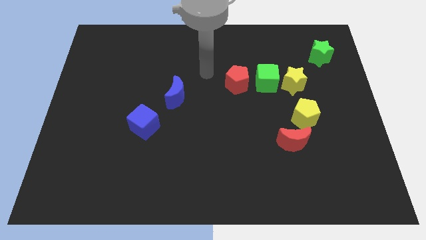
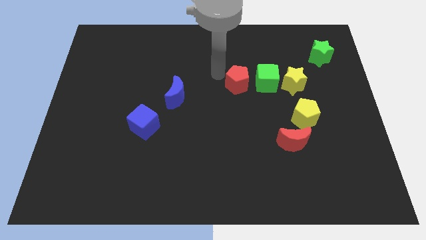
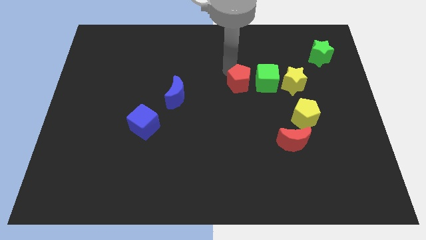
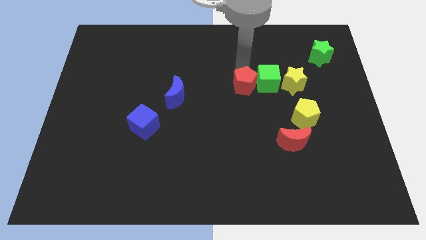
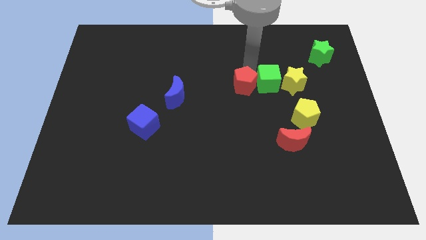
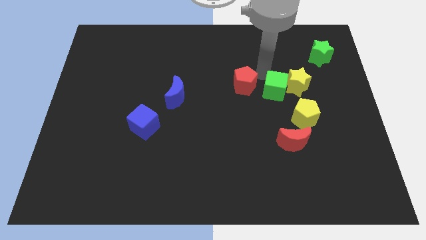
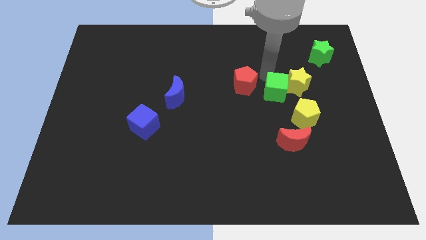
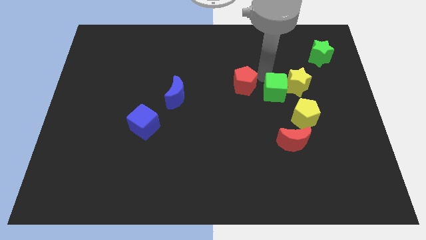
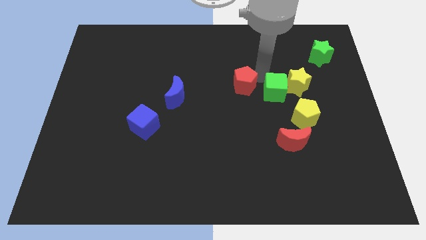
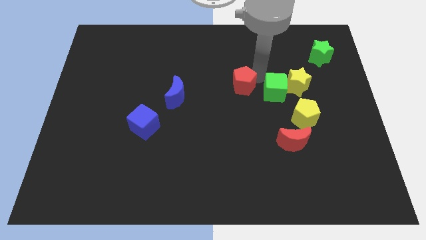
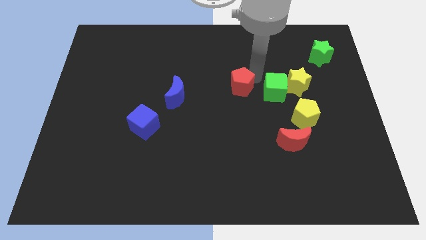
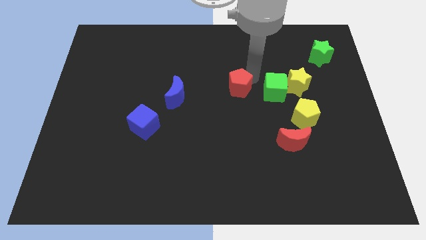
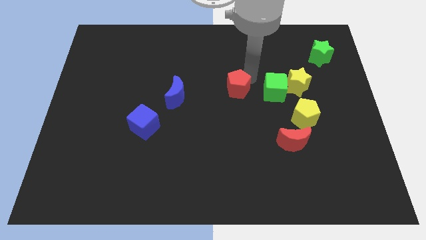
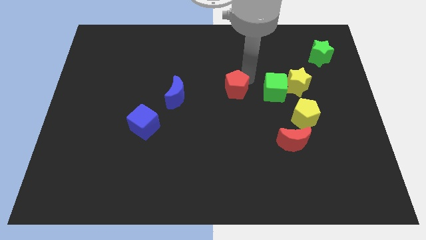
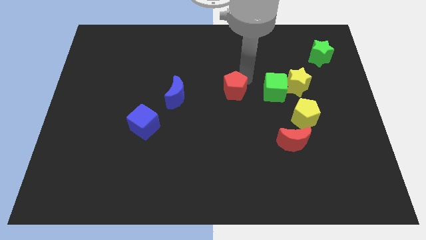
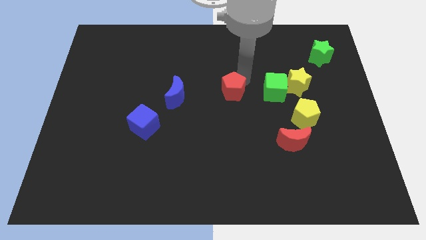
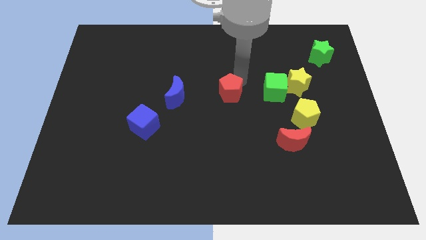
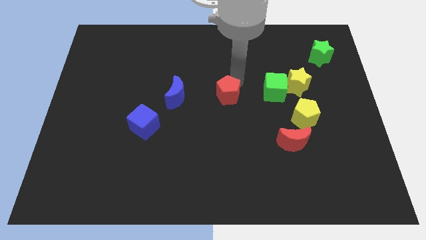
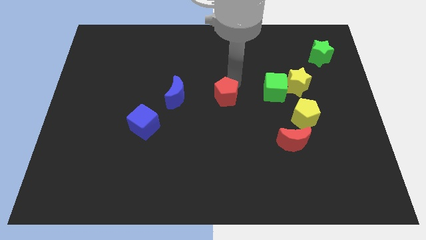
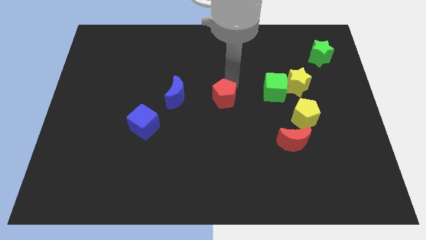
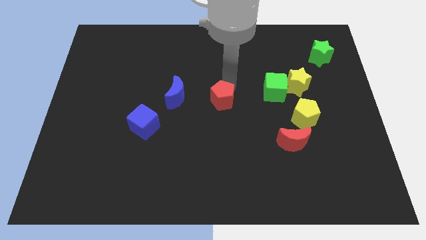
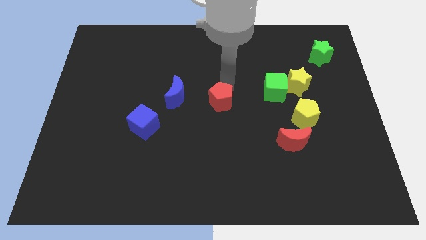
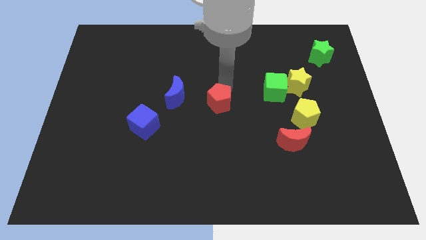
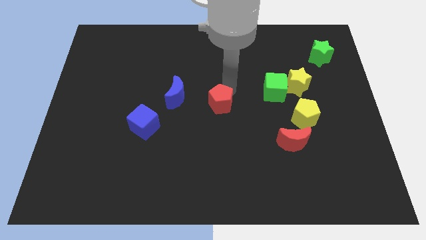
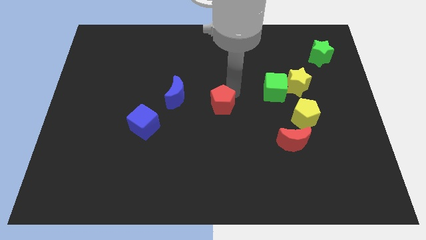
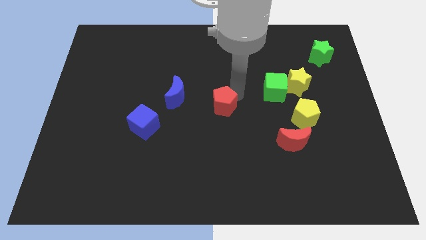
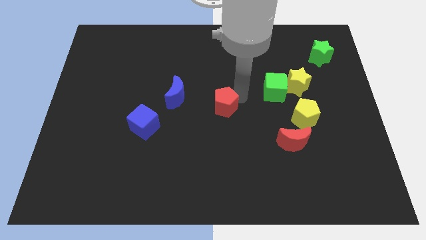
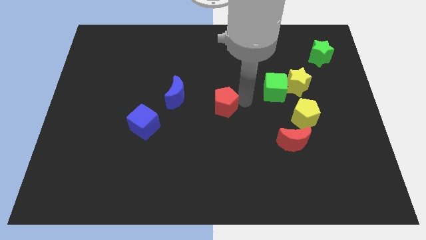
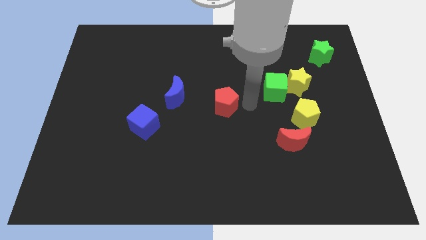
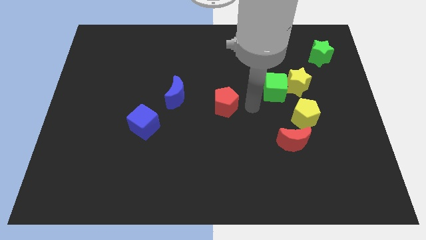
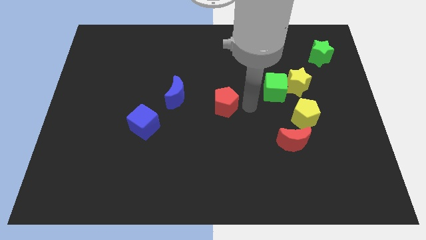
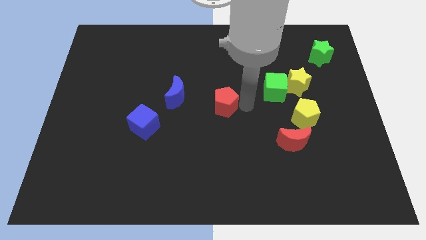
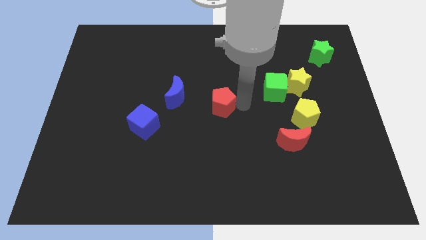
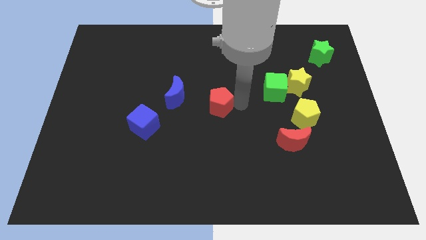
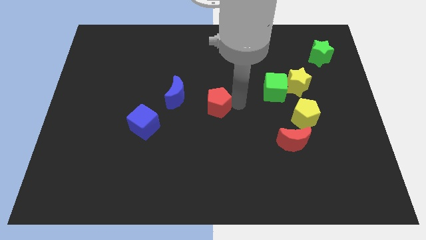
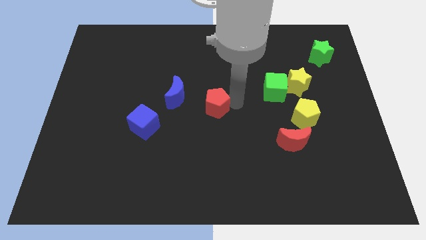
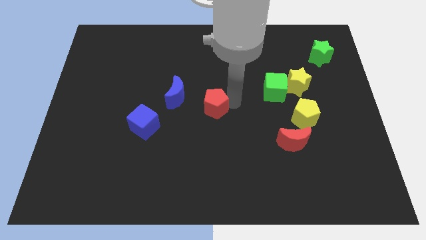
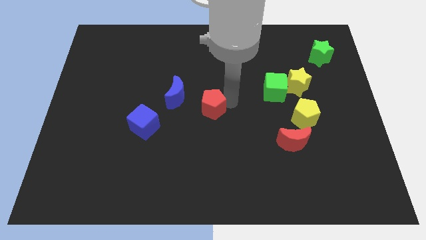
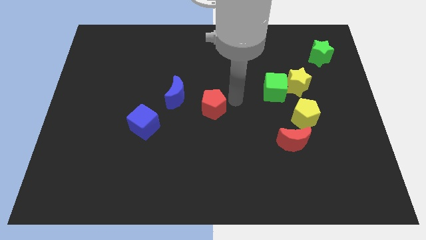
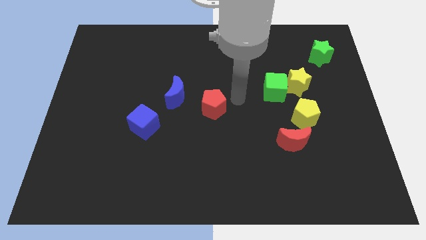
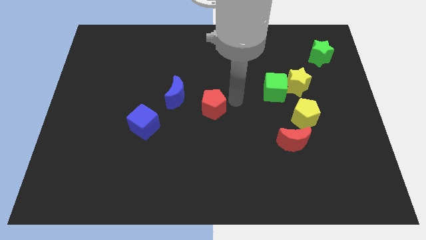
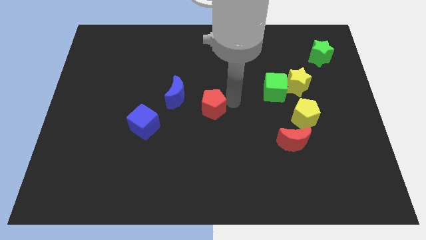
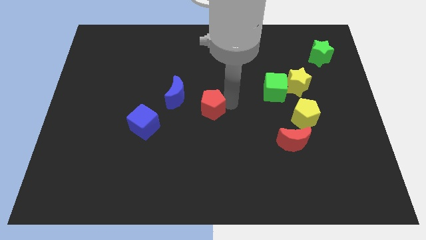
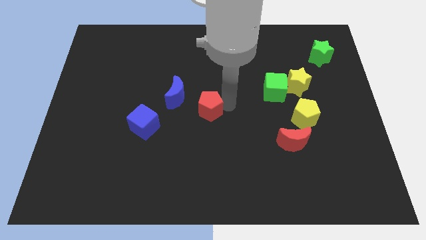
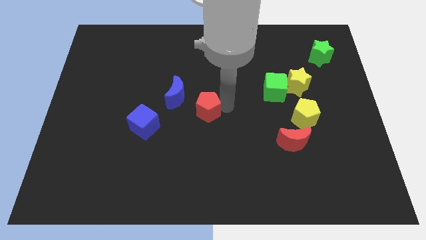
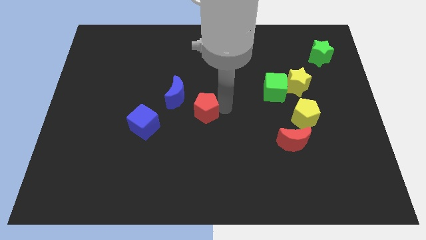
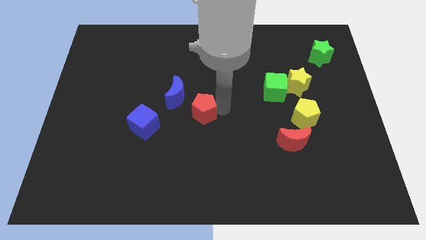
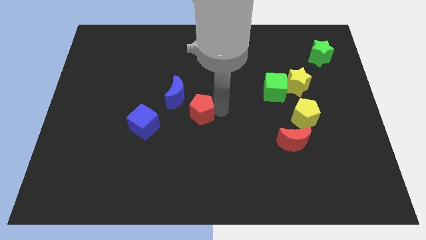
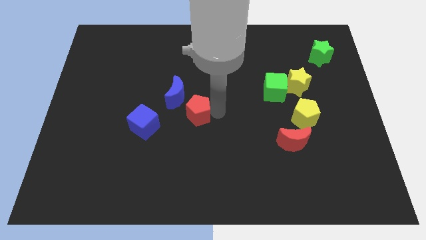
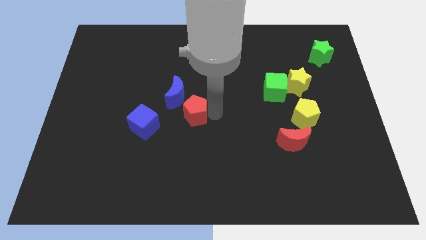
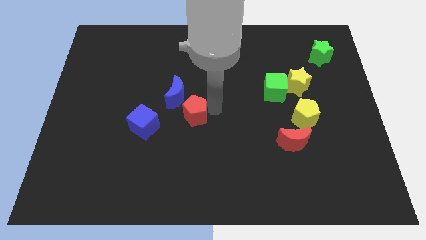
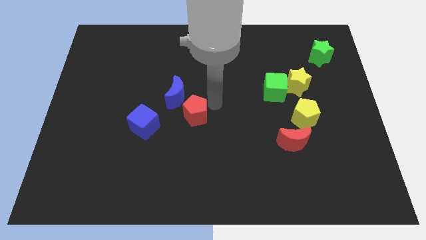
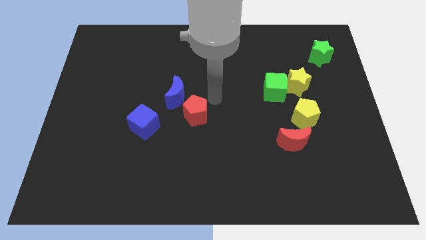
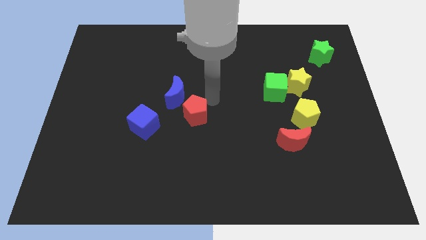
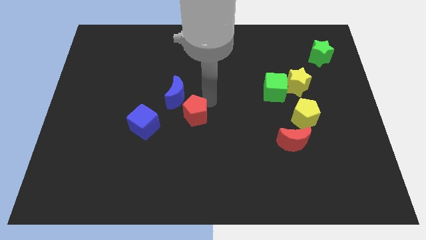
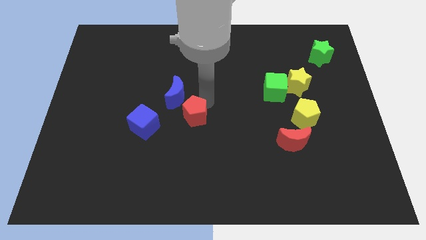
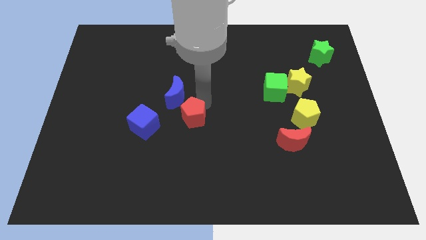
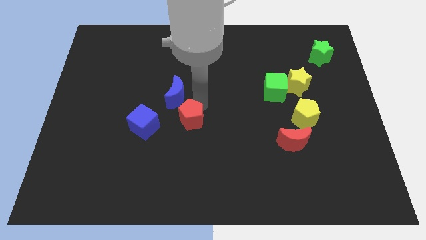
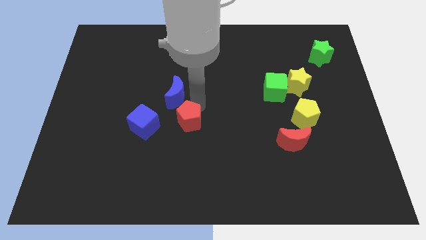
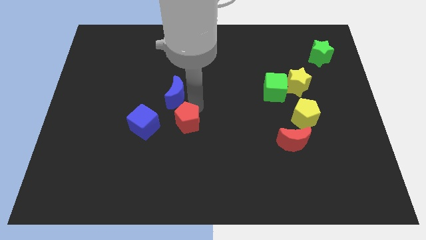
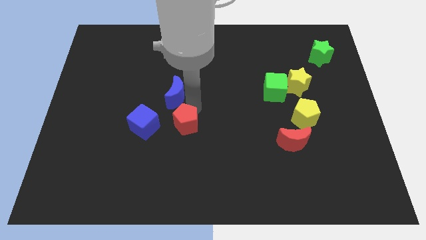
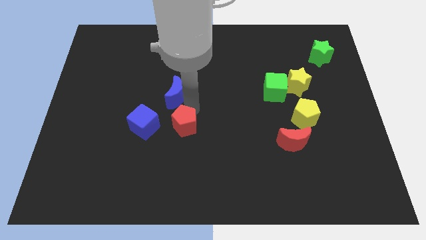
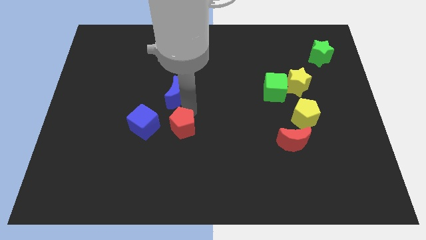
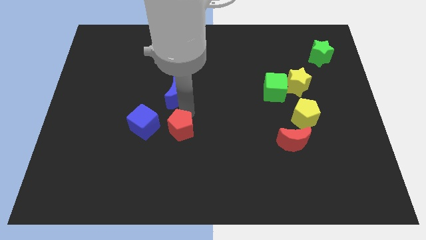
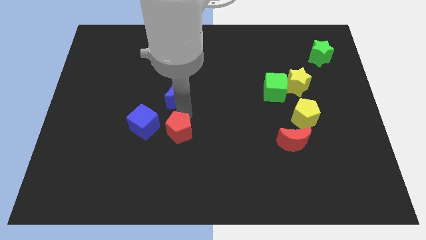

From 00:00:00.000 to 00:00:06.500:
push the red pentagon downwards and then to the left

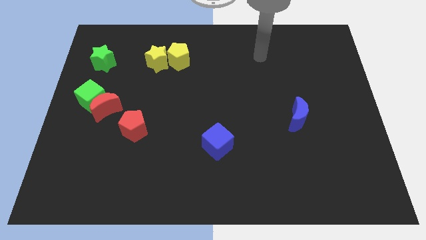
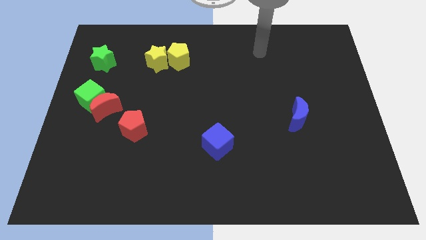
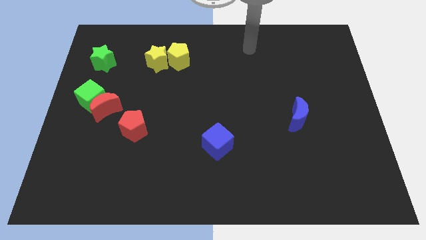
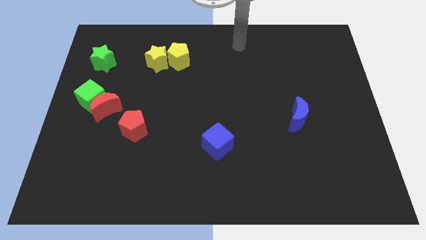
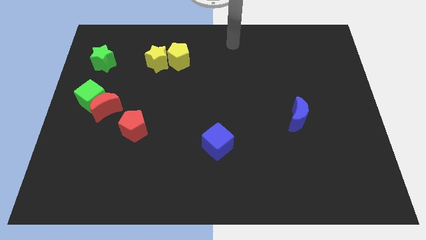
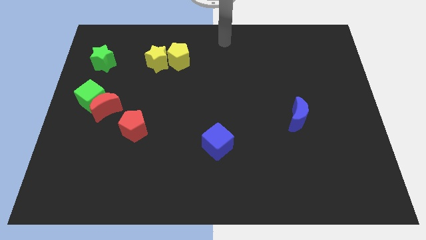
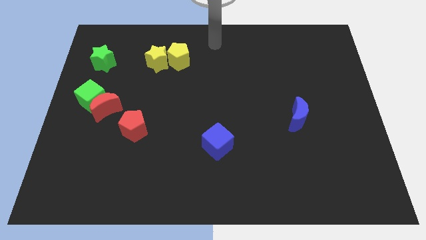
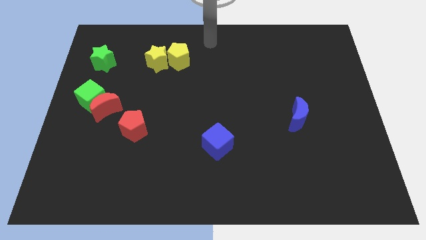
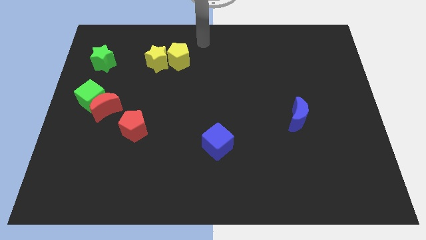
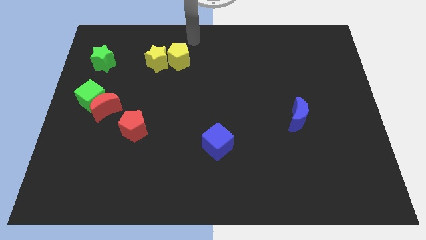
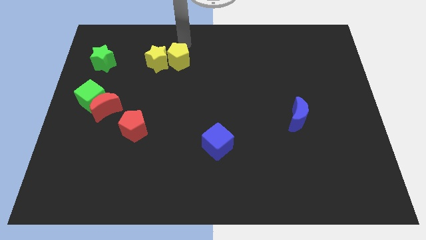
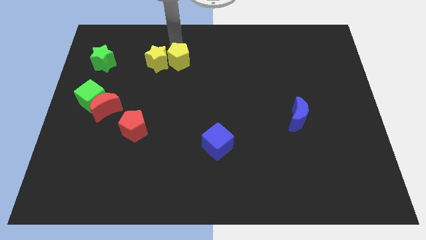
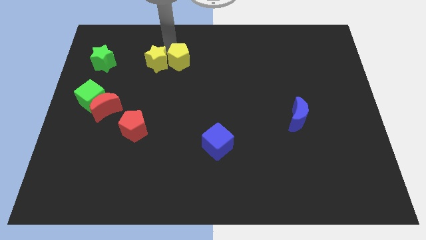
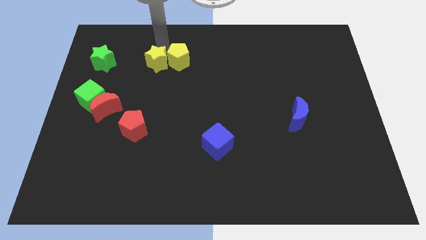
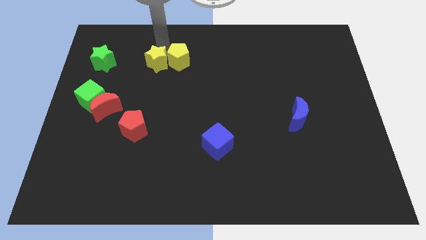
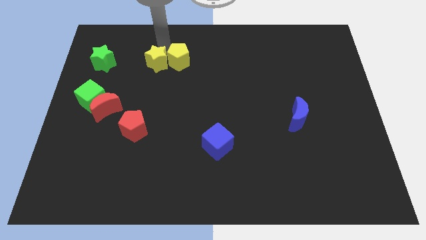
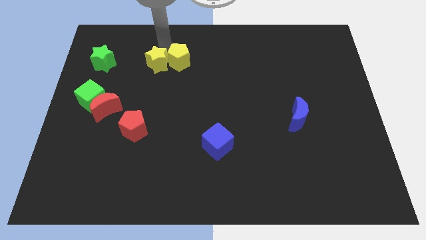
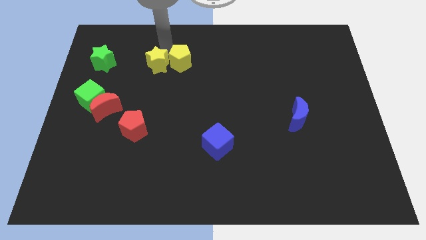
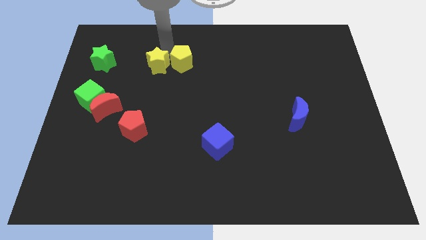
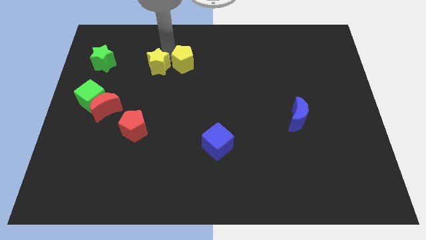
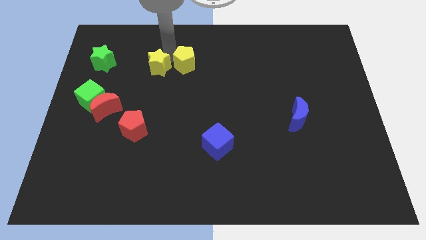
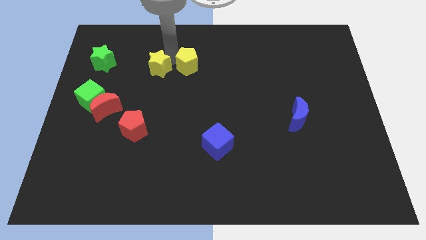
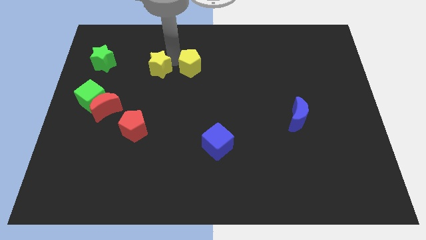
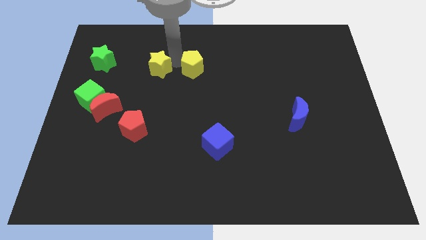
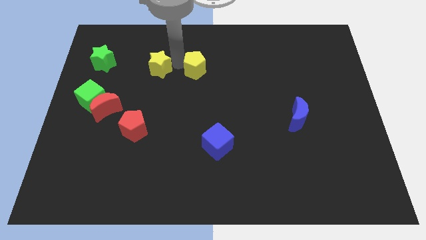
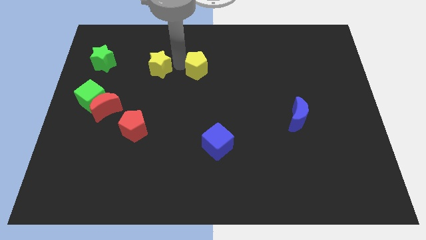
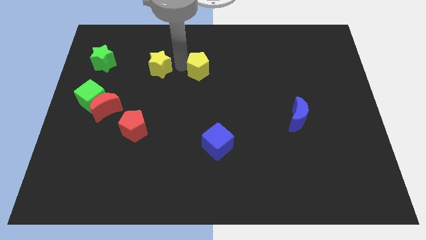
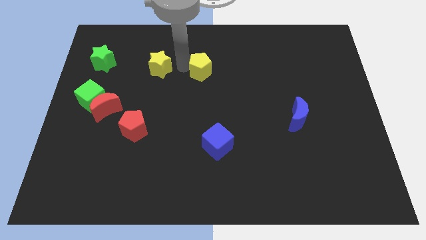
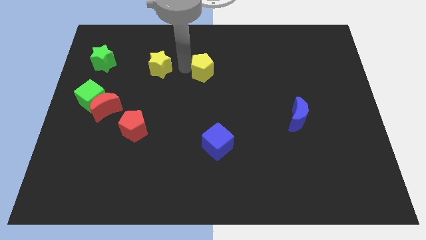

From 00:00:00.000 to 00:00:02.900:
push the yellow pentagon a little bit downwards and right diagonally
